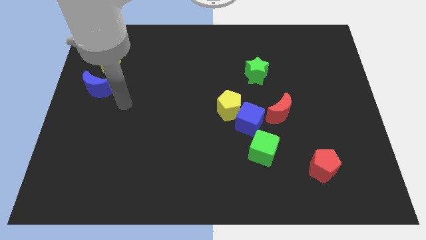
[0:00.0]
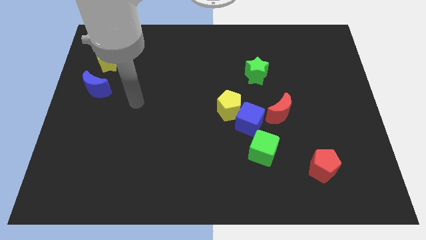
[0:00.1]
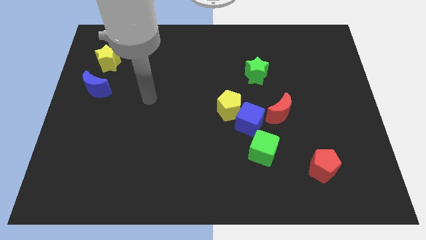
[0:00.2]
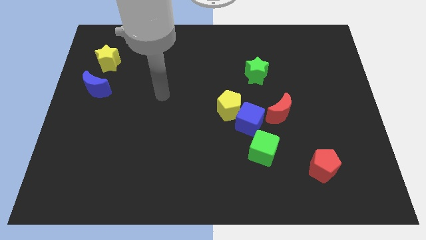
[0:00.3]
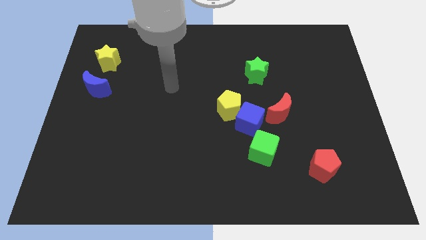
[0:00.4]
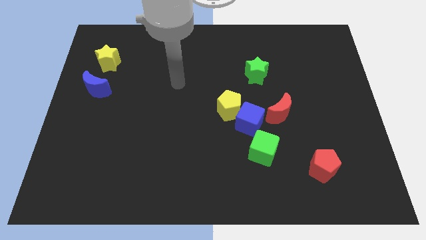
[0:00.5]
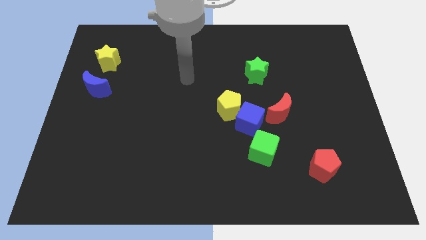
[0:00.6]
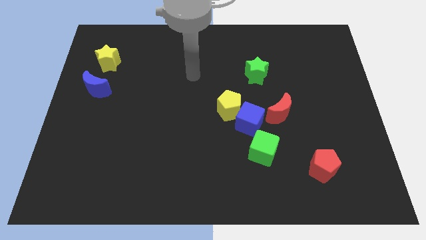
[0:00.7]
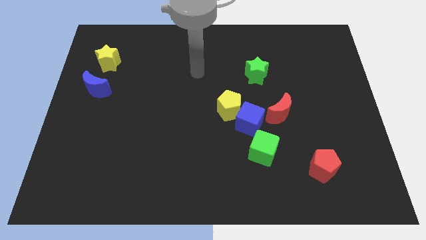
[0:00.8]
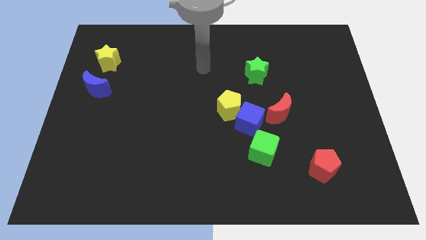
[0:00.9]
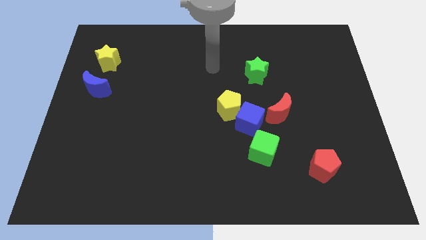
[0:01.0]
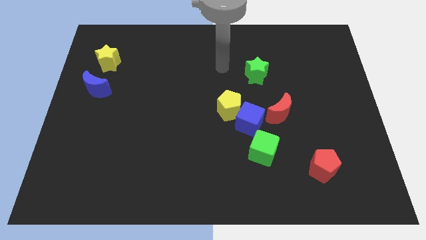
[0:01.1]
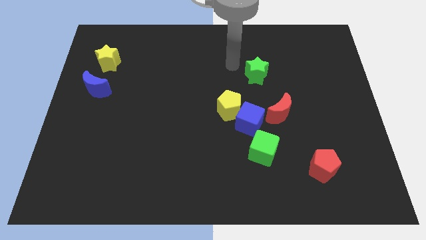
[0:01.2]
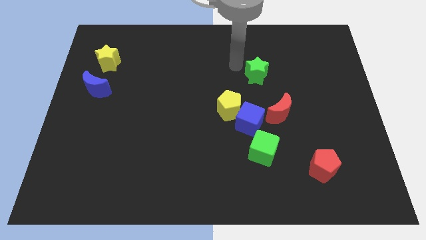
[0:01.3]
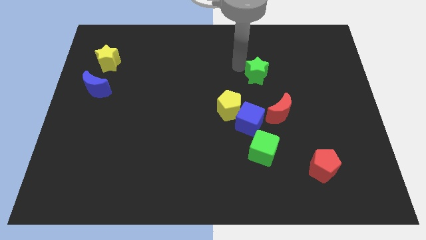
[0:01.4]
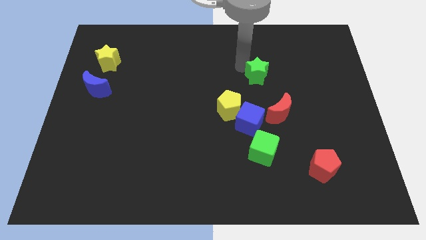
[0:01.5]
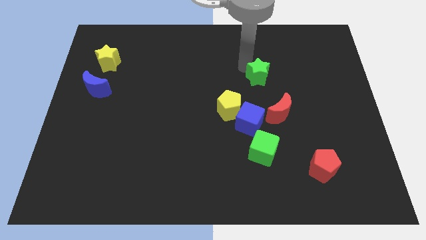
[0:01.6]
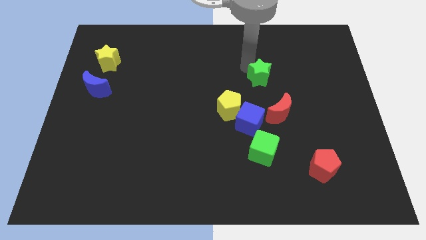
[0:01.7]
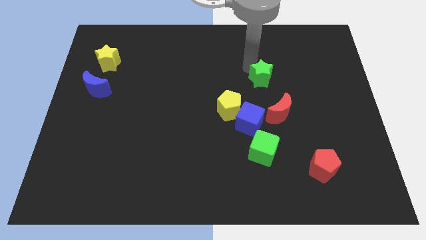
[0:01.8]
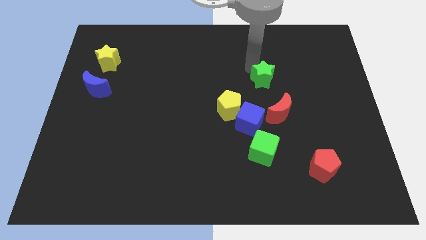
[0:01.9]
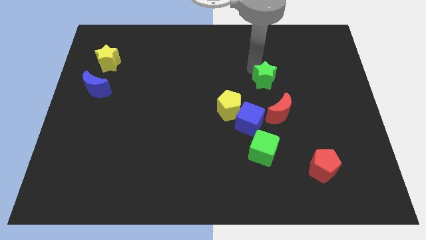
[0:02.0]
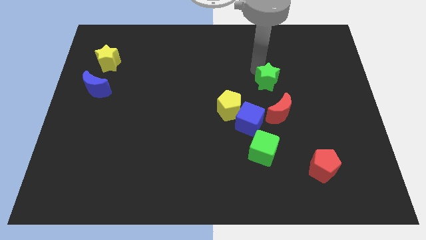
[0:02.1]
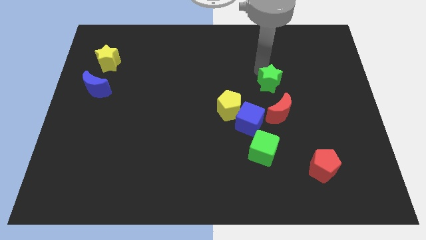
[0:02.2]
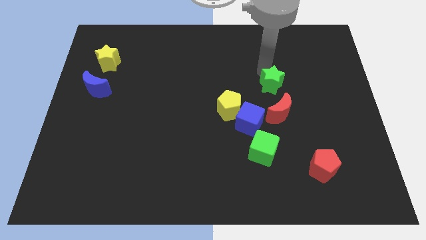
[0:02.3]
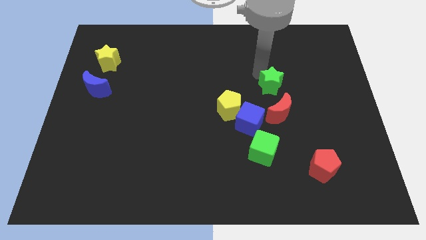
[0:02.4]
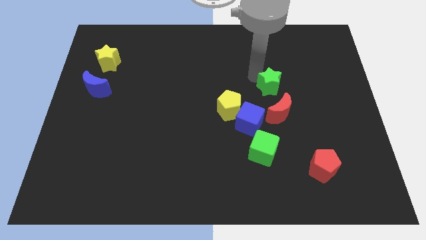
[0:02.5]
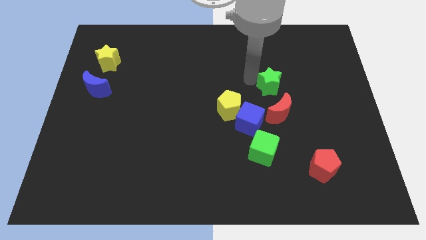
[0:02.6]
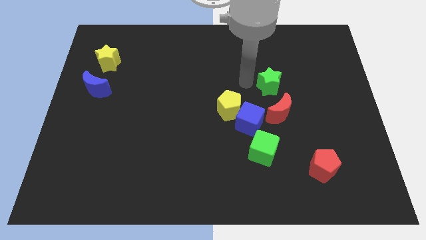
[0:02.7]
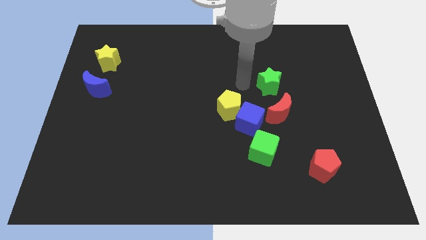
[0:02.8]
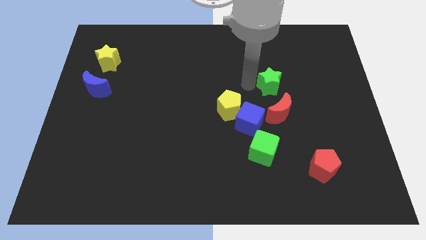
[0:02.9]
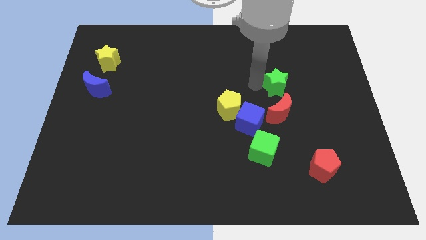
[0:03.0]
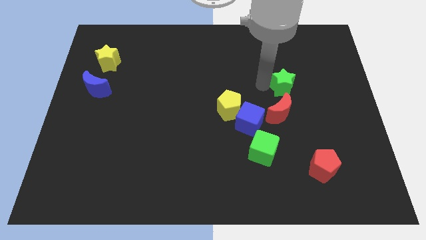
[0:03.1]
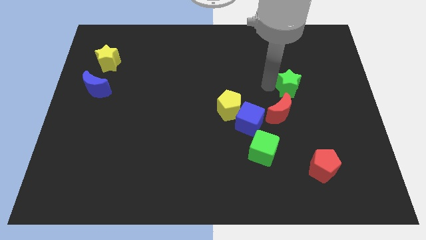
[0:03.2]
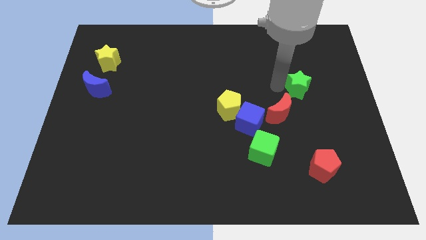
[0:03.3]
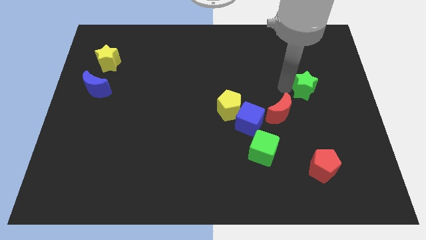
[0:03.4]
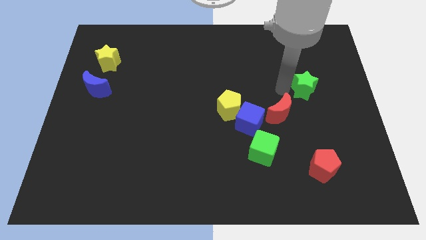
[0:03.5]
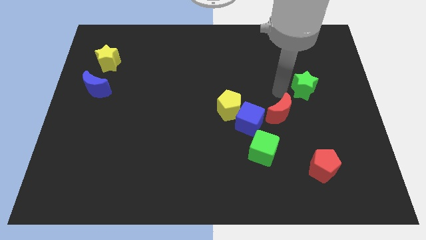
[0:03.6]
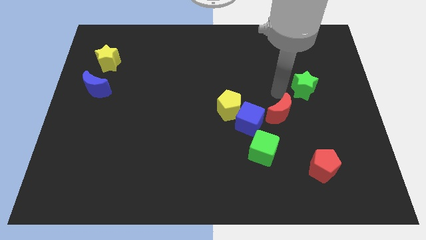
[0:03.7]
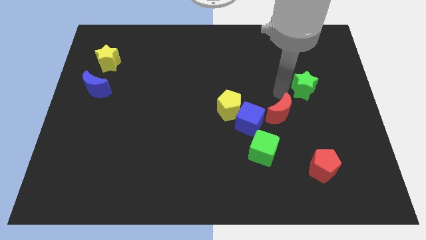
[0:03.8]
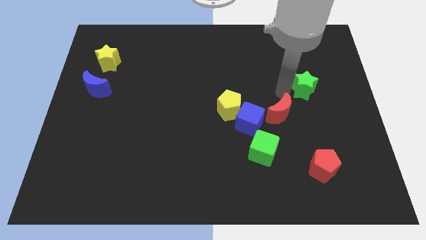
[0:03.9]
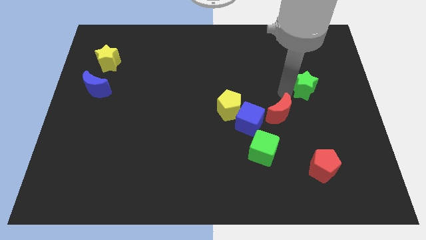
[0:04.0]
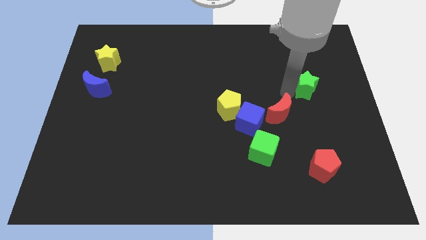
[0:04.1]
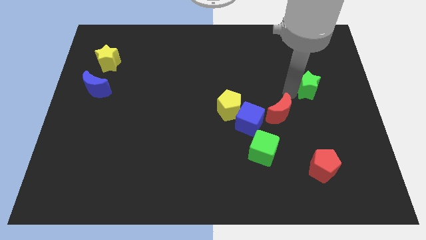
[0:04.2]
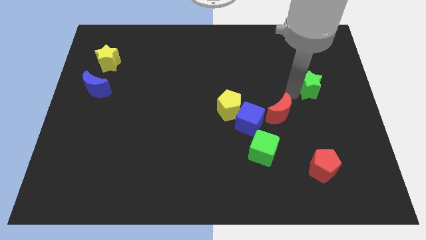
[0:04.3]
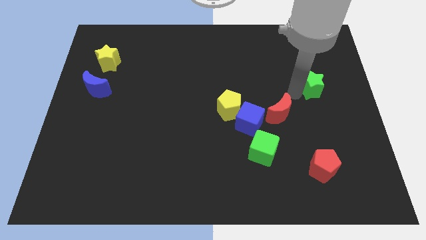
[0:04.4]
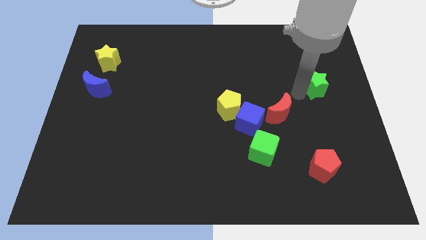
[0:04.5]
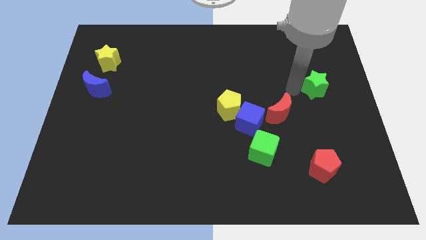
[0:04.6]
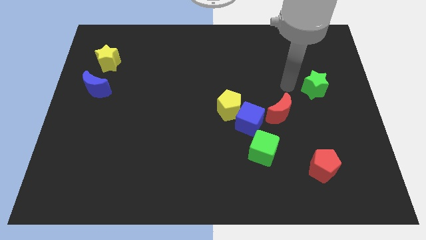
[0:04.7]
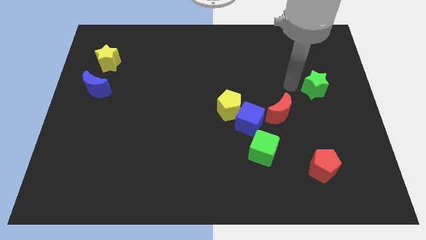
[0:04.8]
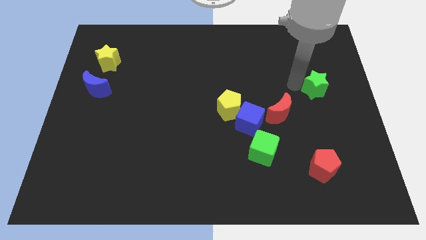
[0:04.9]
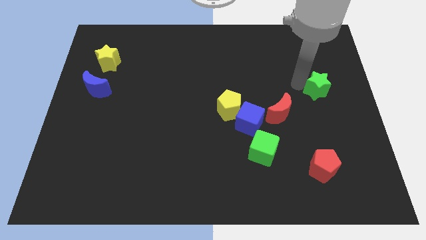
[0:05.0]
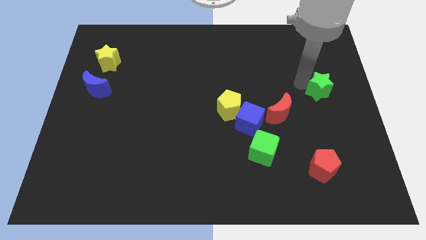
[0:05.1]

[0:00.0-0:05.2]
push the green star to the center right

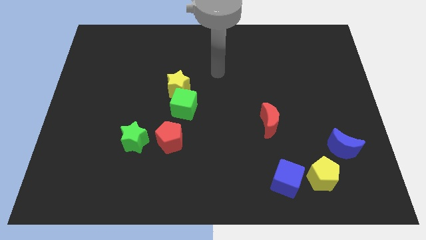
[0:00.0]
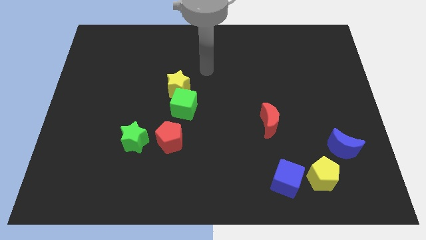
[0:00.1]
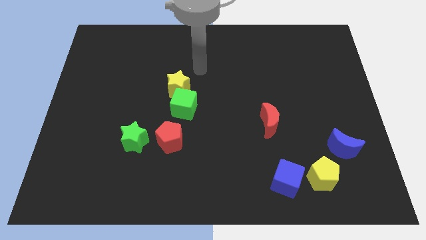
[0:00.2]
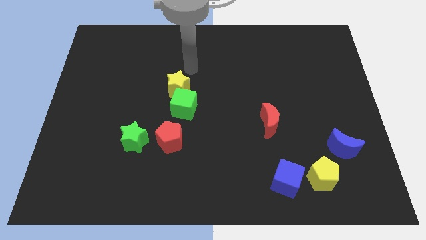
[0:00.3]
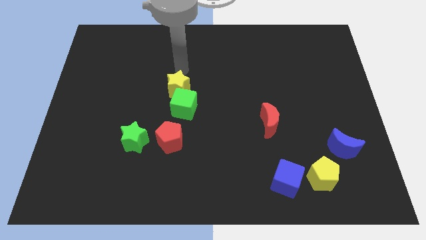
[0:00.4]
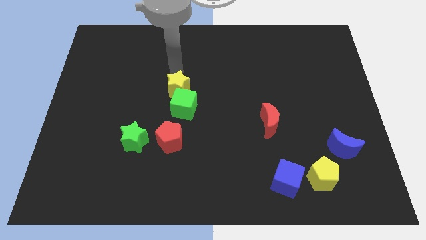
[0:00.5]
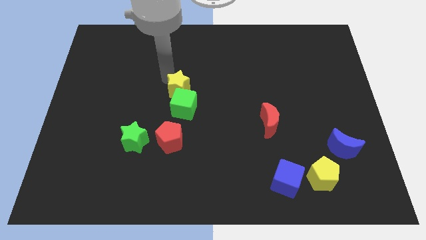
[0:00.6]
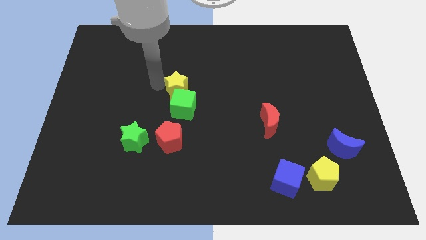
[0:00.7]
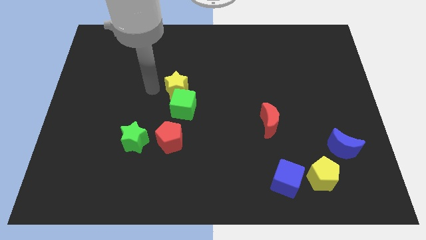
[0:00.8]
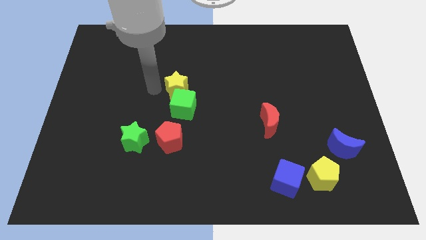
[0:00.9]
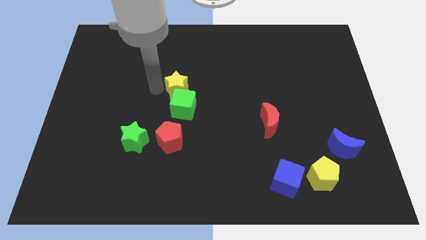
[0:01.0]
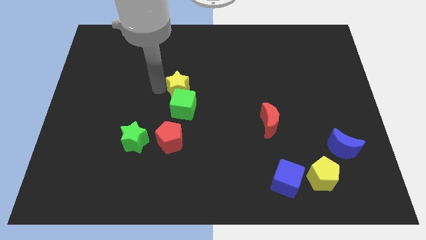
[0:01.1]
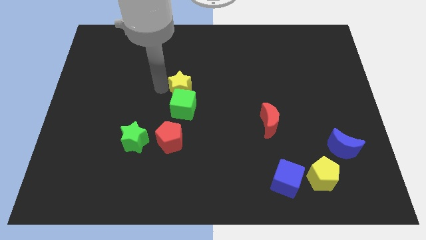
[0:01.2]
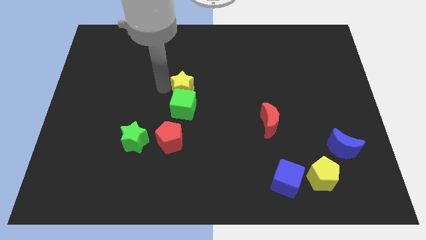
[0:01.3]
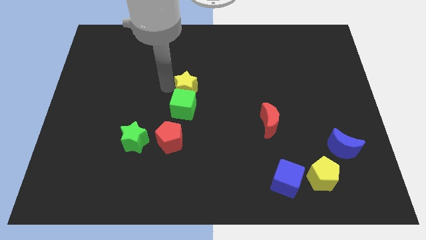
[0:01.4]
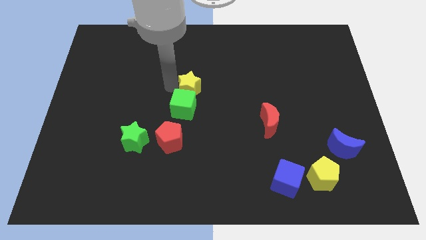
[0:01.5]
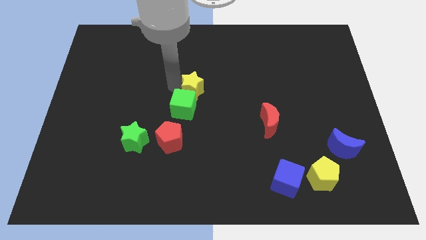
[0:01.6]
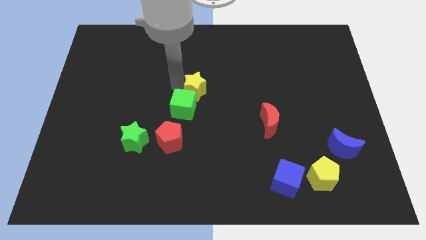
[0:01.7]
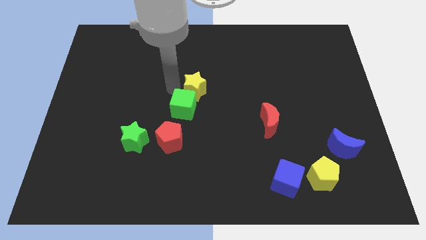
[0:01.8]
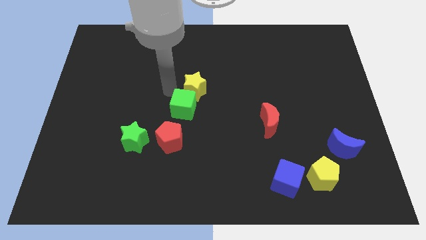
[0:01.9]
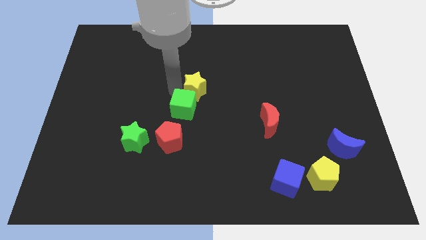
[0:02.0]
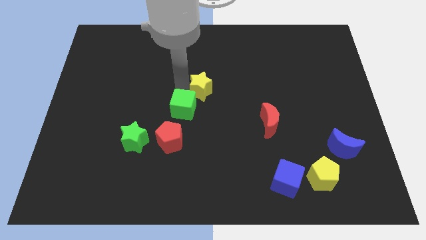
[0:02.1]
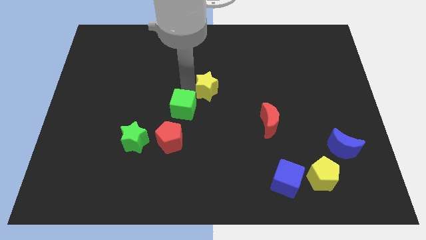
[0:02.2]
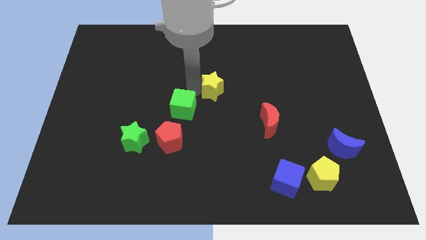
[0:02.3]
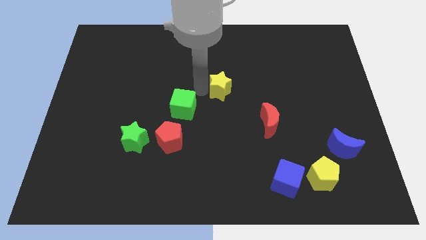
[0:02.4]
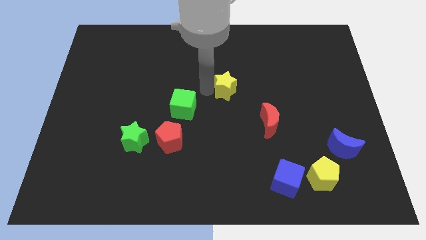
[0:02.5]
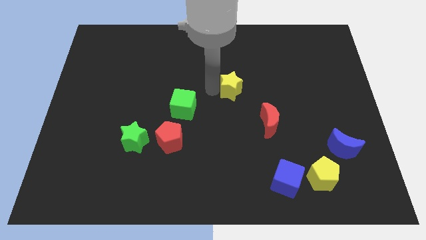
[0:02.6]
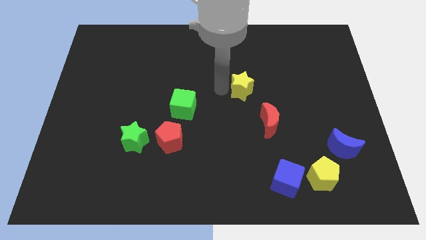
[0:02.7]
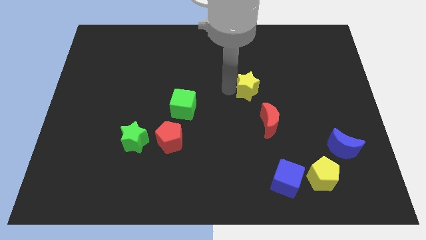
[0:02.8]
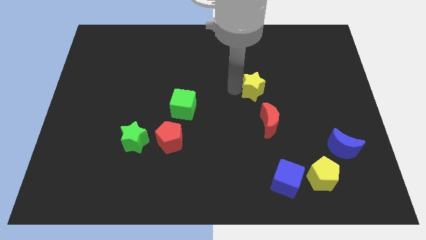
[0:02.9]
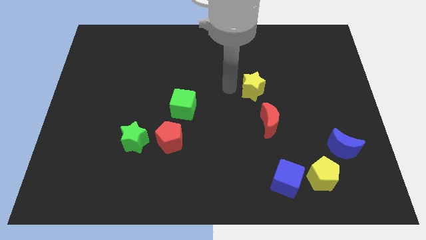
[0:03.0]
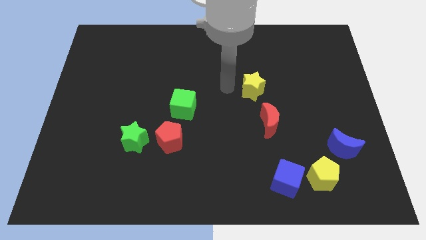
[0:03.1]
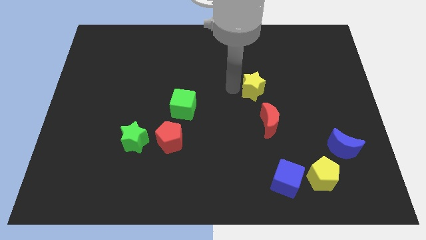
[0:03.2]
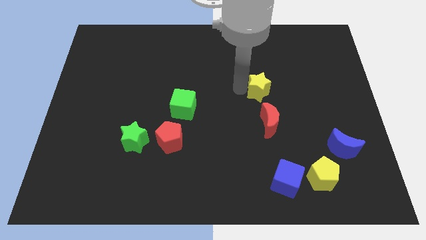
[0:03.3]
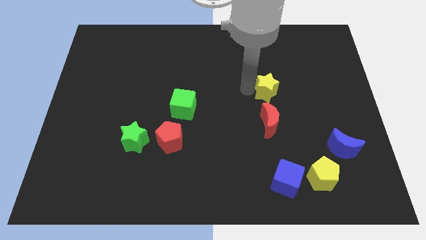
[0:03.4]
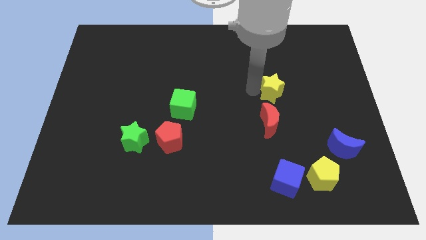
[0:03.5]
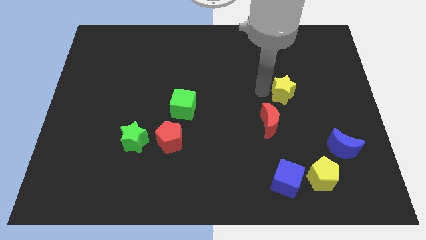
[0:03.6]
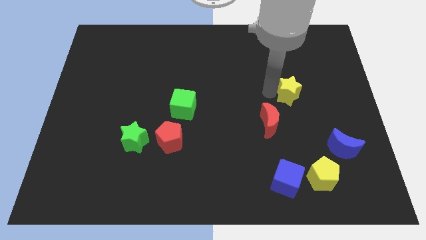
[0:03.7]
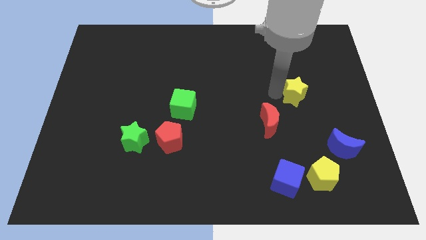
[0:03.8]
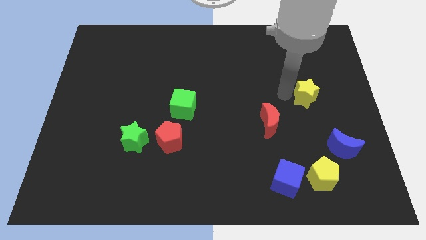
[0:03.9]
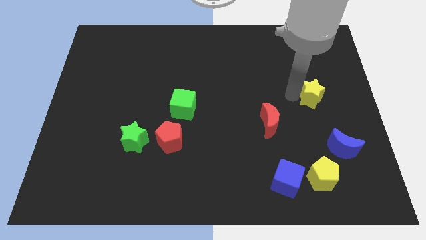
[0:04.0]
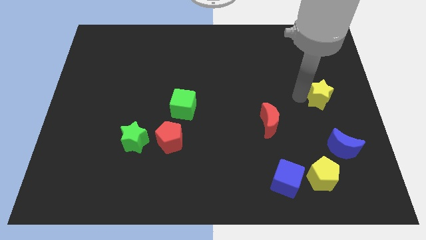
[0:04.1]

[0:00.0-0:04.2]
slide the yellow star to the right side
